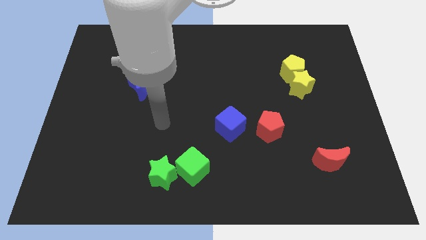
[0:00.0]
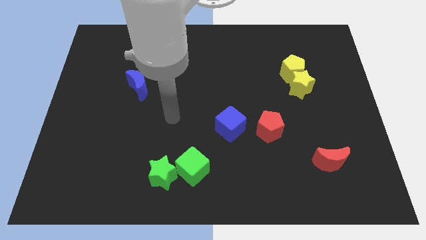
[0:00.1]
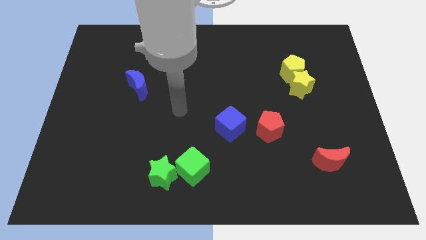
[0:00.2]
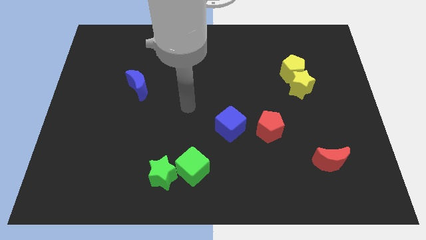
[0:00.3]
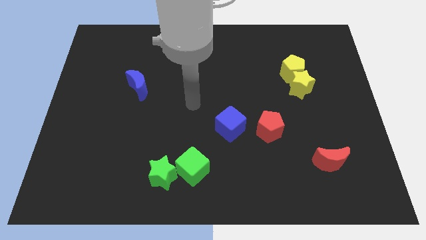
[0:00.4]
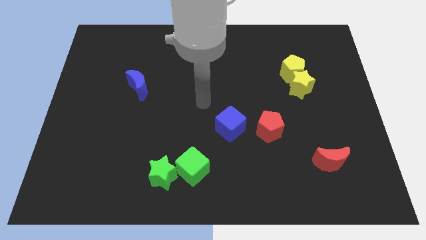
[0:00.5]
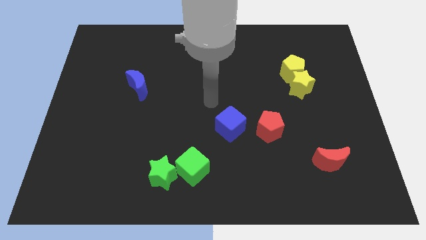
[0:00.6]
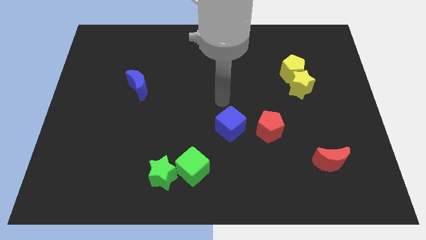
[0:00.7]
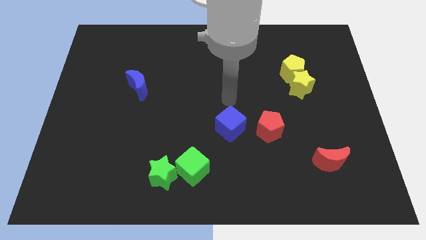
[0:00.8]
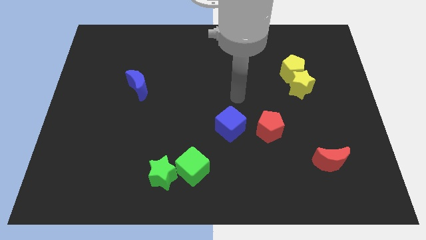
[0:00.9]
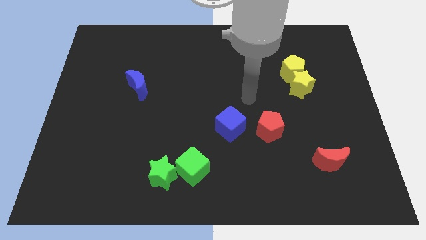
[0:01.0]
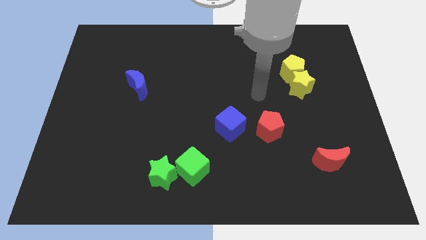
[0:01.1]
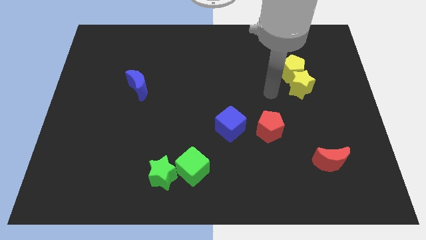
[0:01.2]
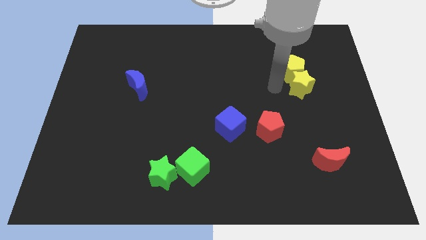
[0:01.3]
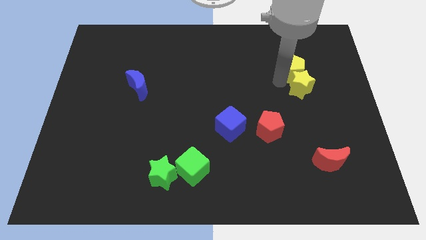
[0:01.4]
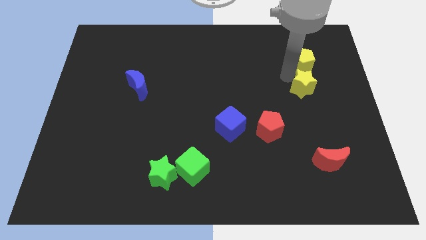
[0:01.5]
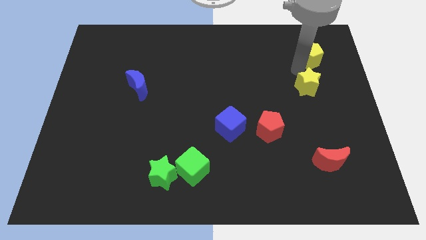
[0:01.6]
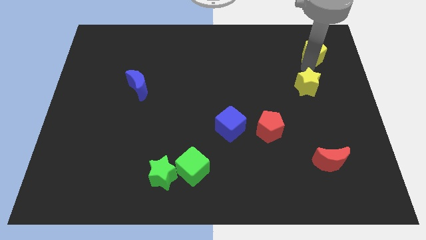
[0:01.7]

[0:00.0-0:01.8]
move the yellow star away from the yellow pentagon

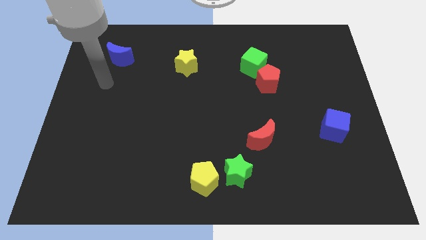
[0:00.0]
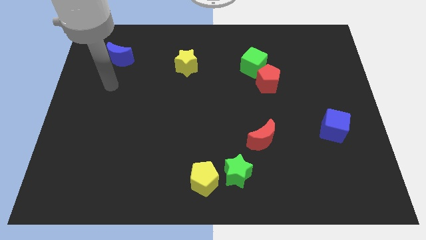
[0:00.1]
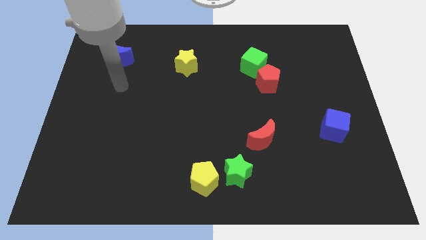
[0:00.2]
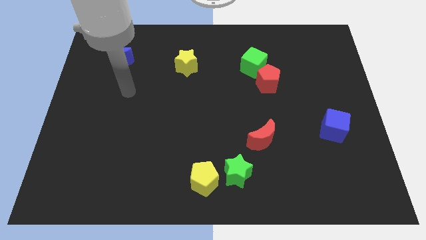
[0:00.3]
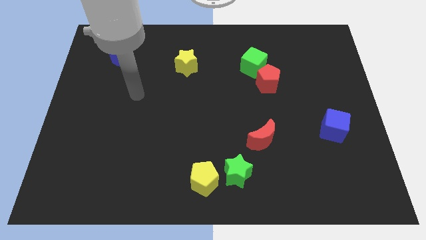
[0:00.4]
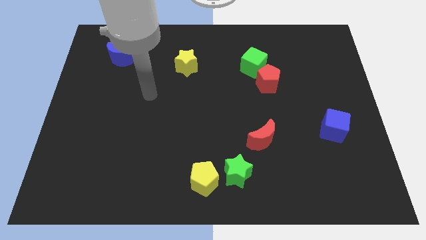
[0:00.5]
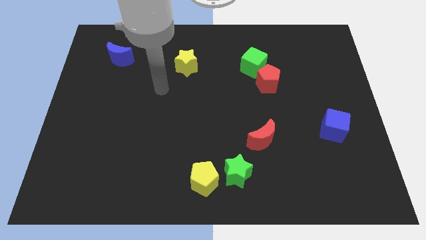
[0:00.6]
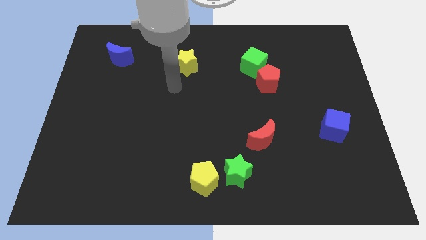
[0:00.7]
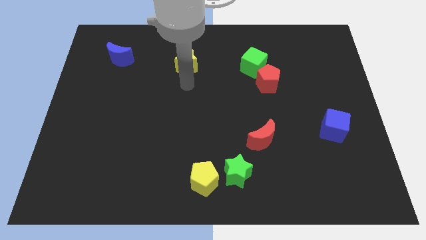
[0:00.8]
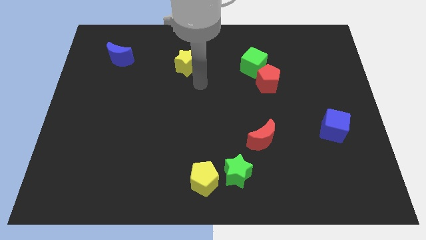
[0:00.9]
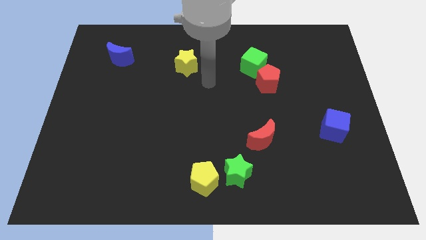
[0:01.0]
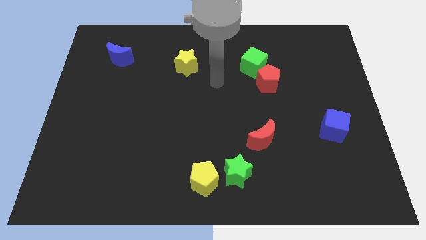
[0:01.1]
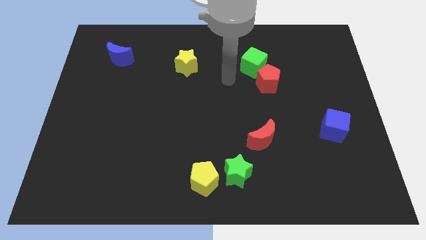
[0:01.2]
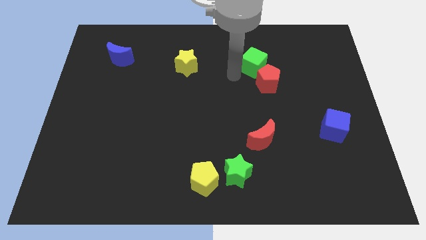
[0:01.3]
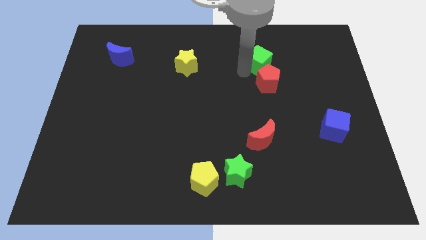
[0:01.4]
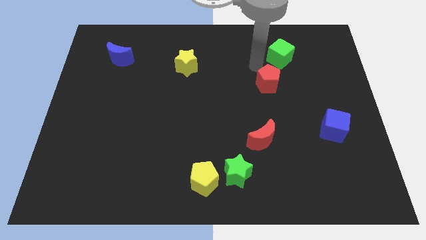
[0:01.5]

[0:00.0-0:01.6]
move the red pentagon away from the green cube

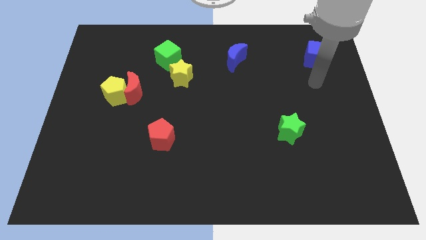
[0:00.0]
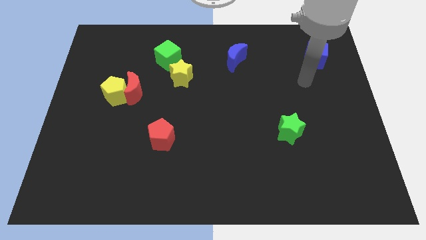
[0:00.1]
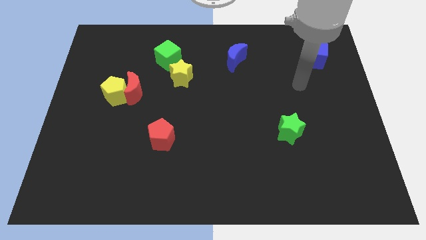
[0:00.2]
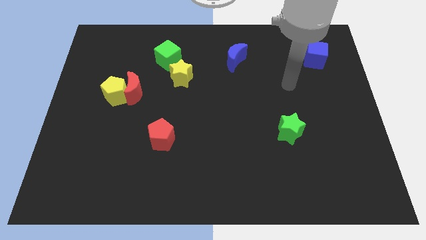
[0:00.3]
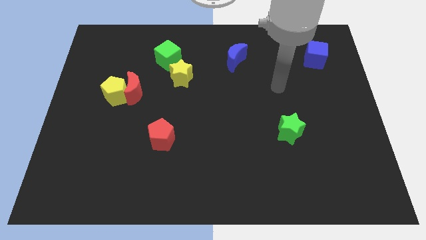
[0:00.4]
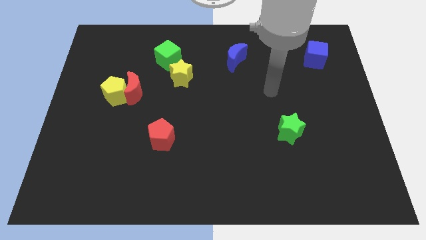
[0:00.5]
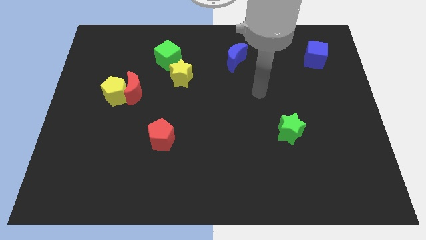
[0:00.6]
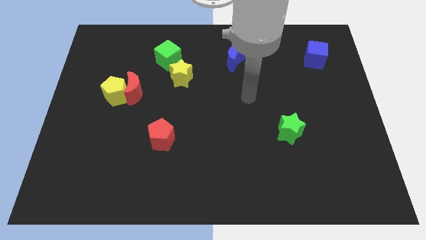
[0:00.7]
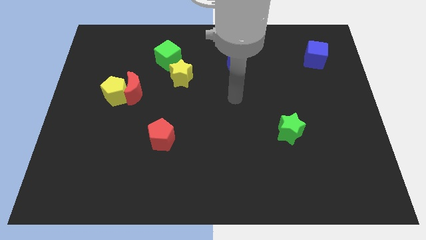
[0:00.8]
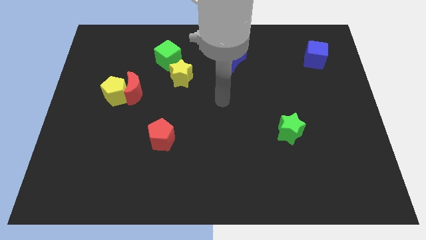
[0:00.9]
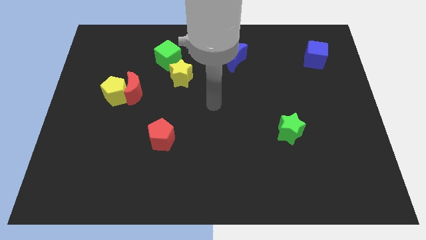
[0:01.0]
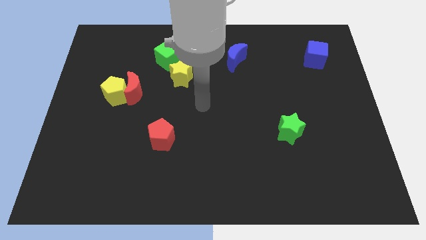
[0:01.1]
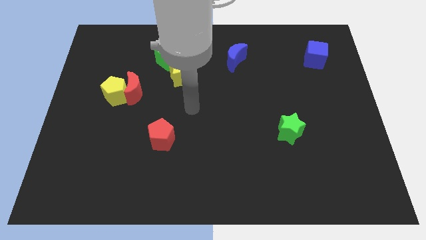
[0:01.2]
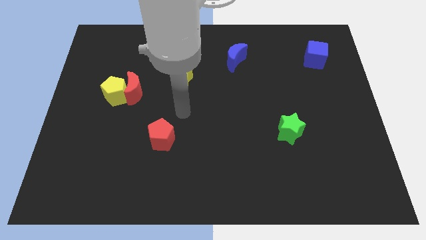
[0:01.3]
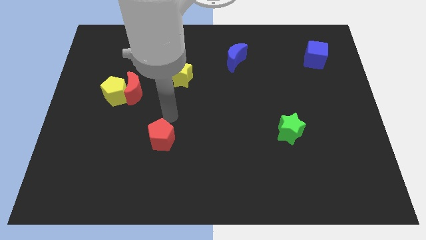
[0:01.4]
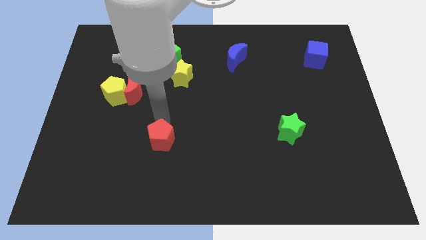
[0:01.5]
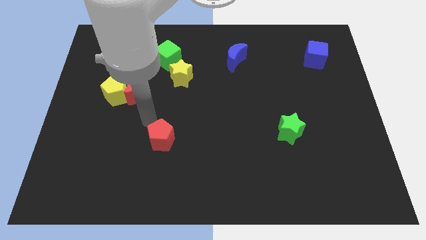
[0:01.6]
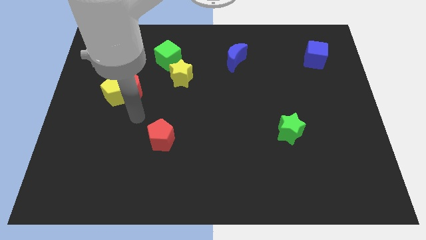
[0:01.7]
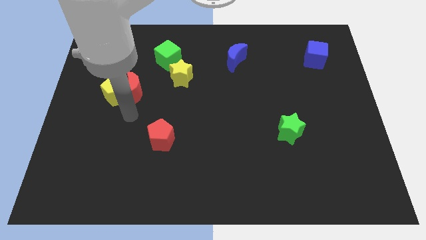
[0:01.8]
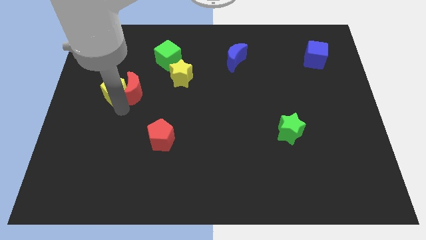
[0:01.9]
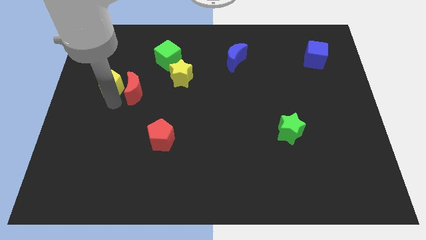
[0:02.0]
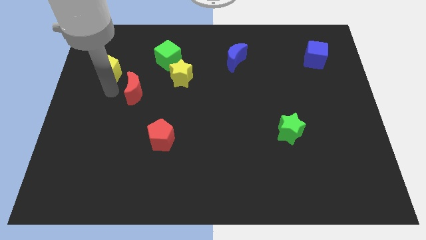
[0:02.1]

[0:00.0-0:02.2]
move the red moon away from the yellow pentagon

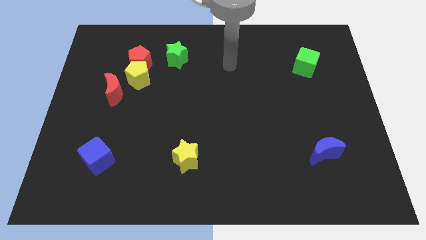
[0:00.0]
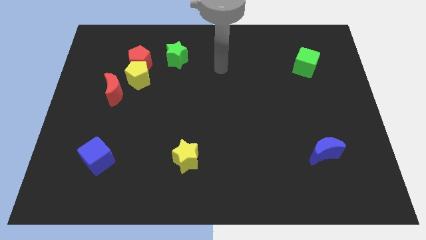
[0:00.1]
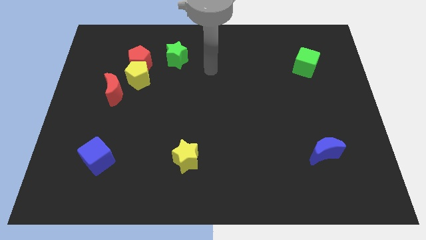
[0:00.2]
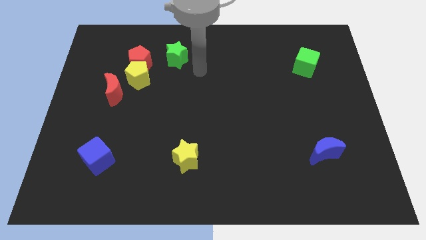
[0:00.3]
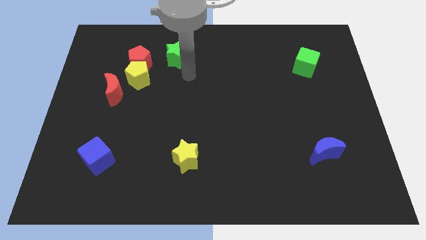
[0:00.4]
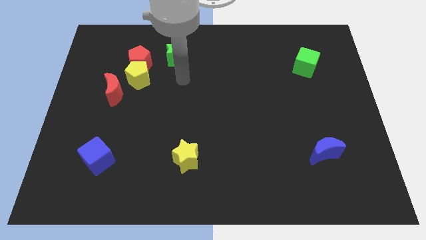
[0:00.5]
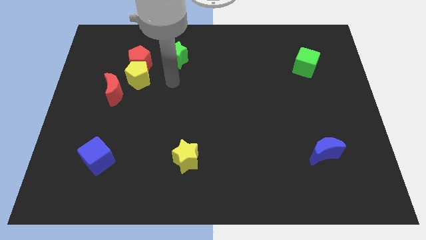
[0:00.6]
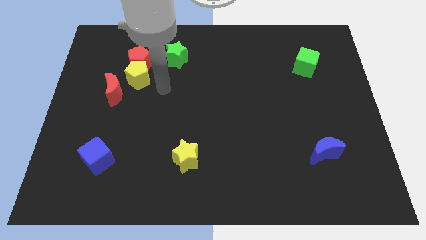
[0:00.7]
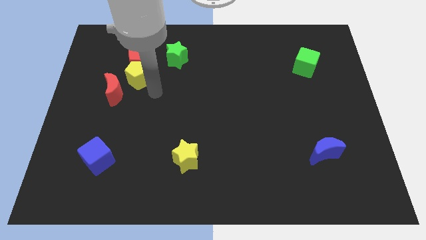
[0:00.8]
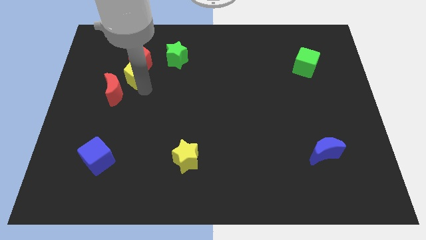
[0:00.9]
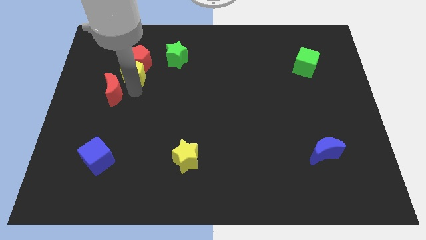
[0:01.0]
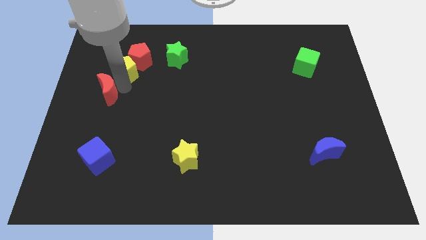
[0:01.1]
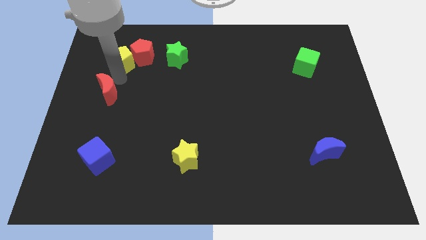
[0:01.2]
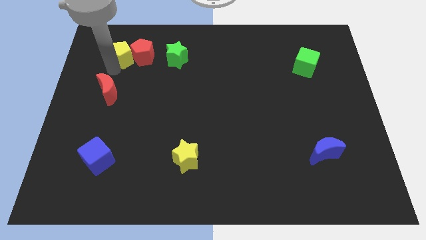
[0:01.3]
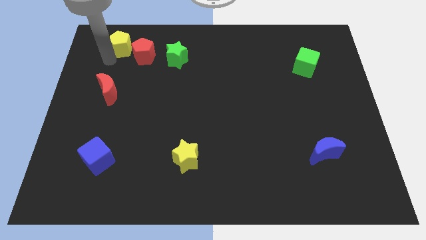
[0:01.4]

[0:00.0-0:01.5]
pull the yellow pentagon apart from the red pentagon and red moon

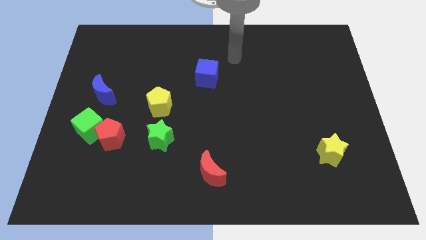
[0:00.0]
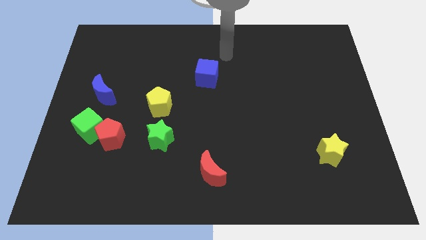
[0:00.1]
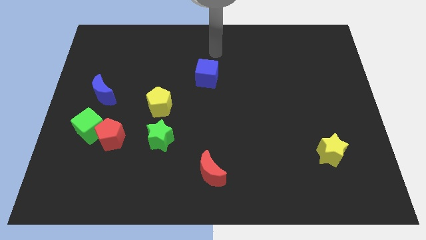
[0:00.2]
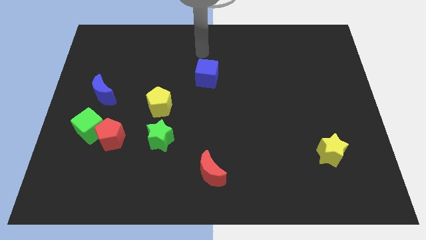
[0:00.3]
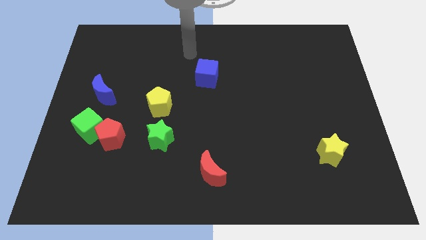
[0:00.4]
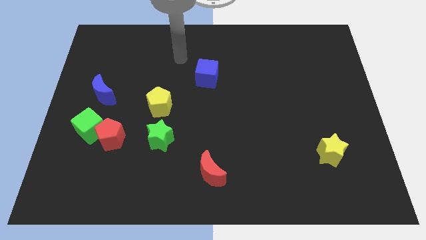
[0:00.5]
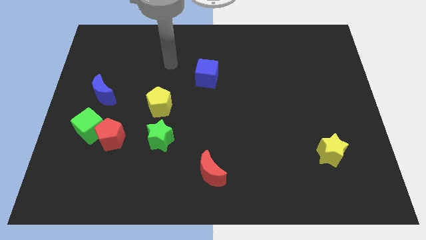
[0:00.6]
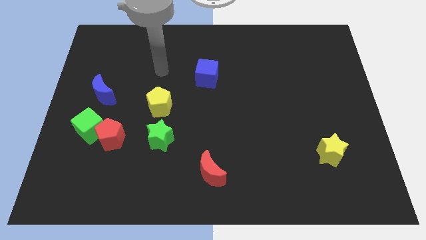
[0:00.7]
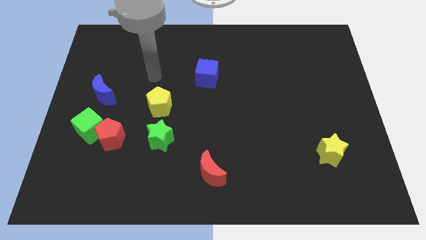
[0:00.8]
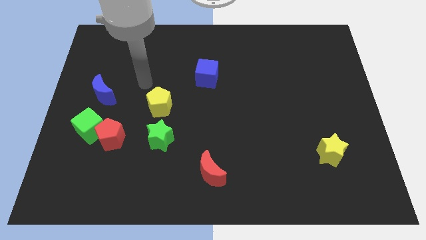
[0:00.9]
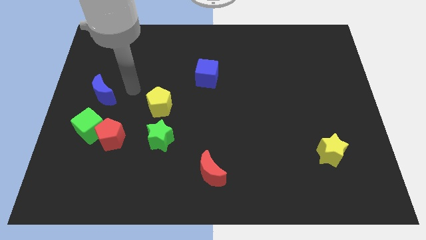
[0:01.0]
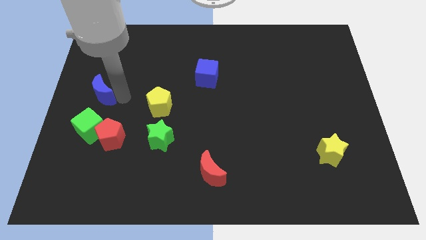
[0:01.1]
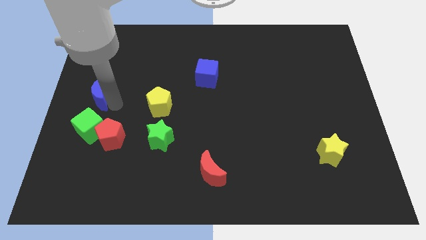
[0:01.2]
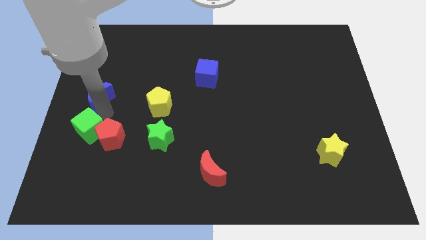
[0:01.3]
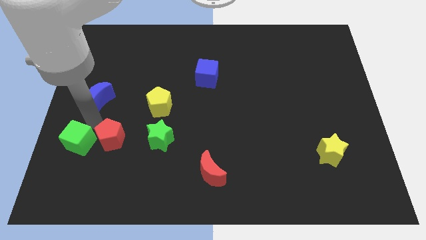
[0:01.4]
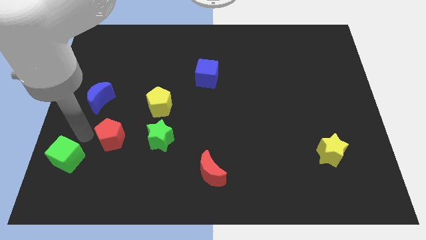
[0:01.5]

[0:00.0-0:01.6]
pull the red pentagon apart from the green cube

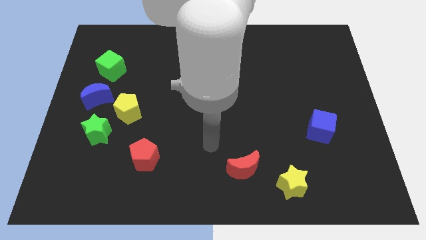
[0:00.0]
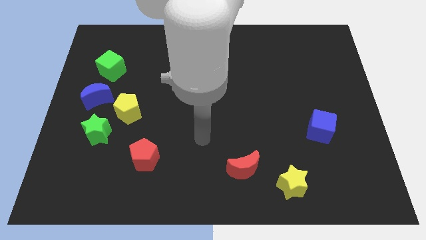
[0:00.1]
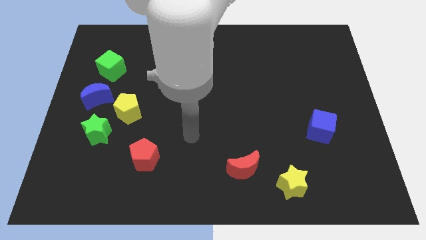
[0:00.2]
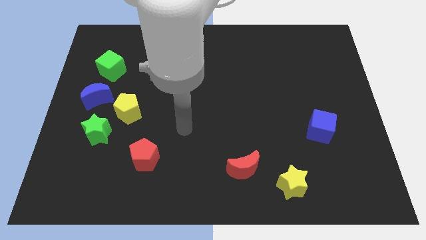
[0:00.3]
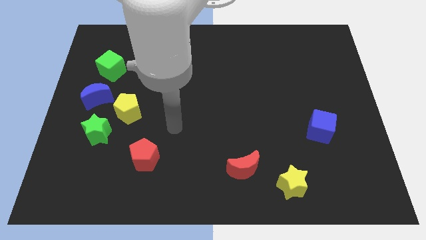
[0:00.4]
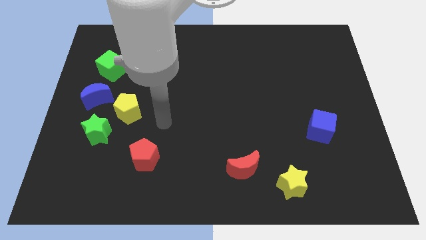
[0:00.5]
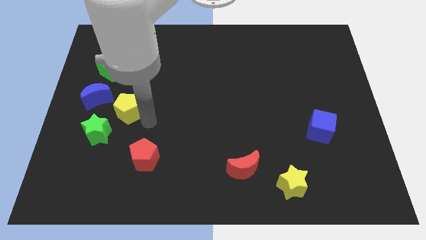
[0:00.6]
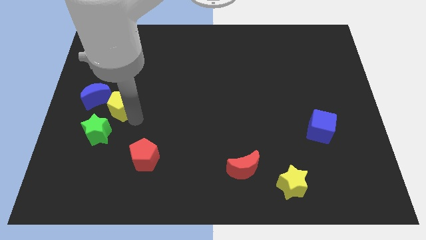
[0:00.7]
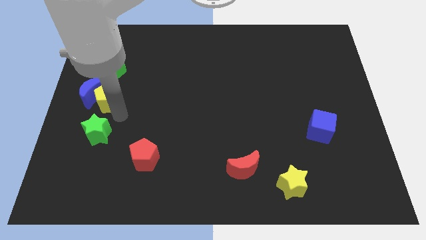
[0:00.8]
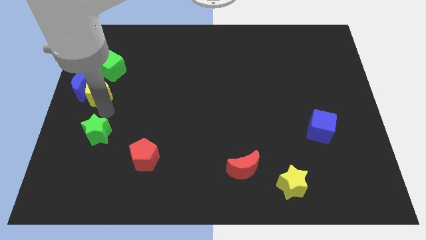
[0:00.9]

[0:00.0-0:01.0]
separate the green star from the yellow pentagon
